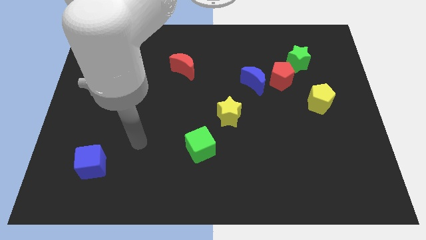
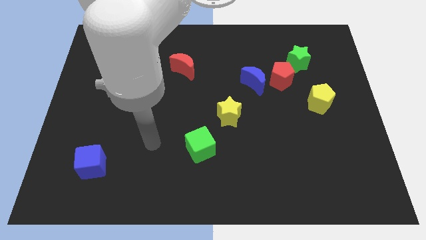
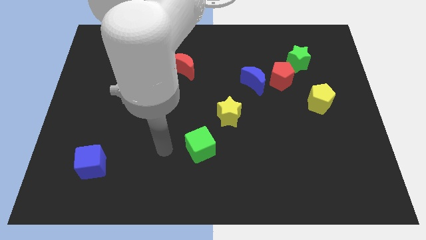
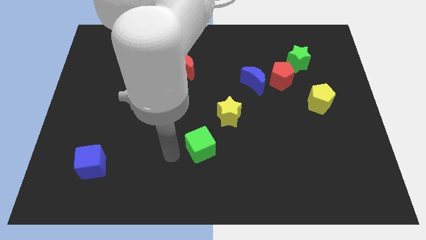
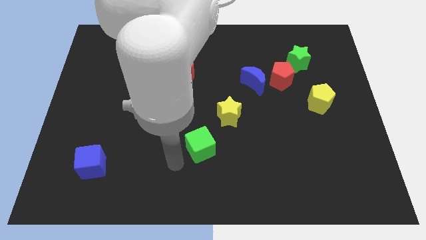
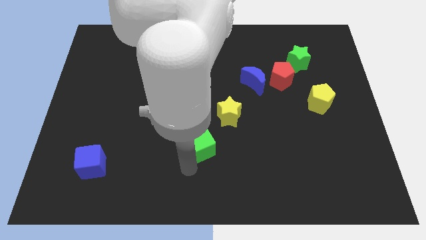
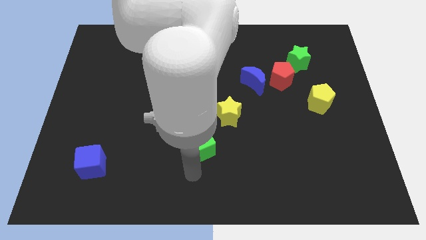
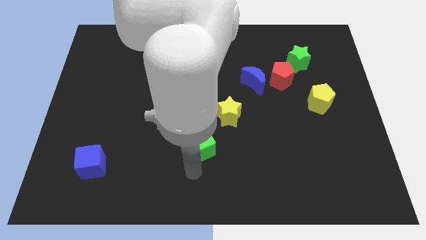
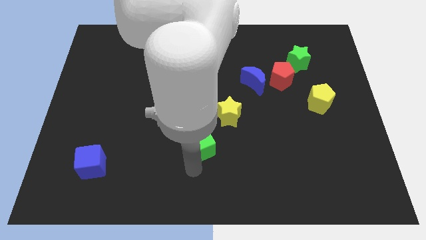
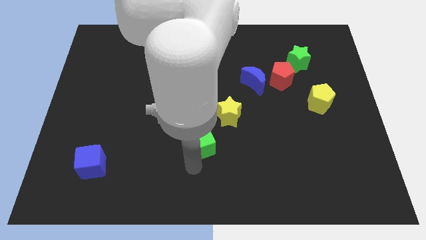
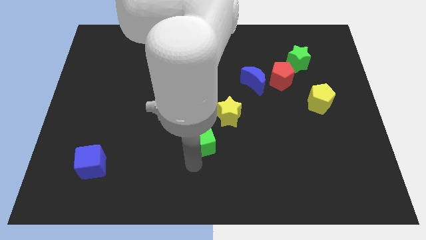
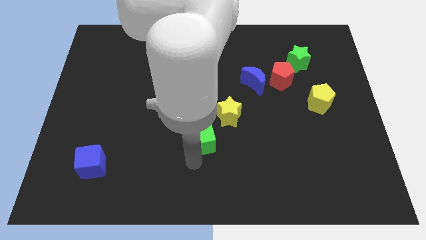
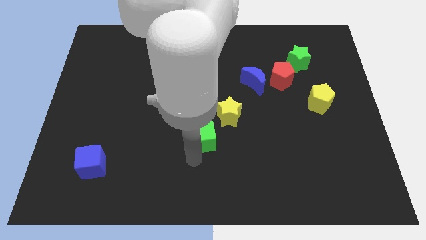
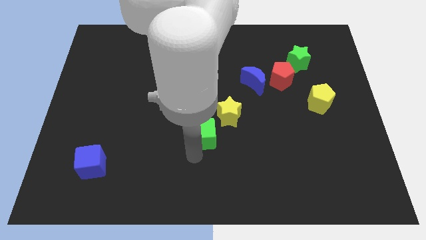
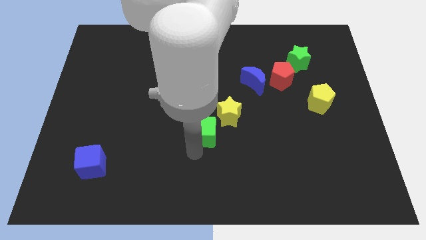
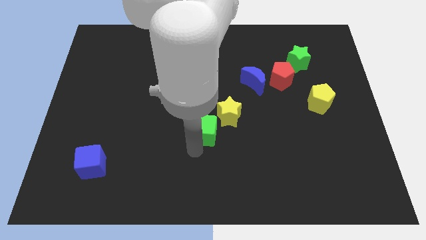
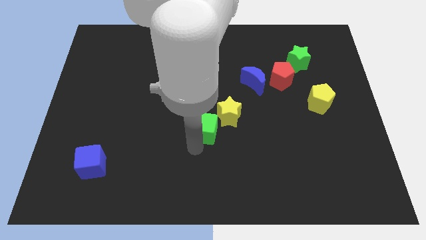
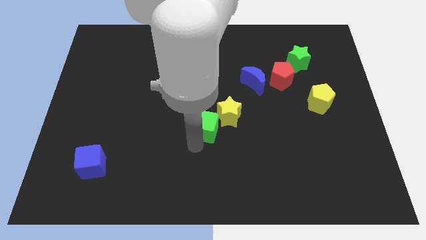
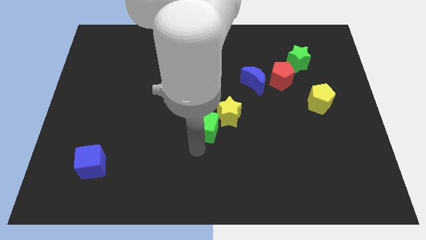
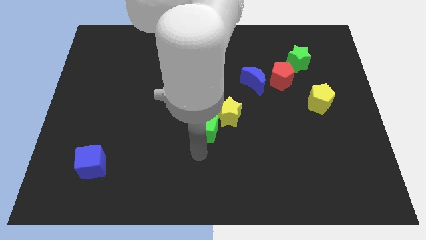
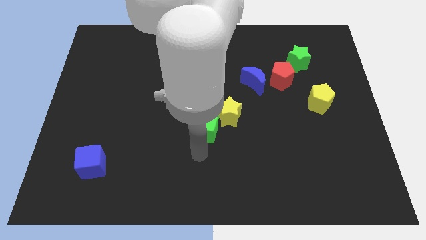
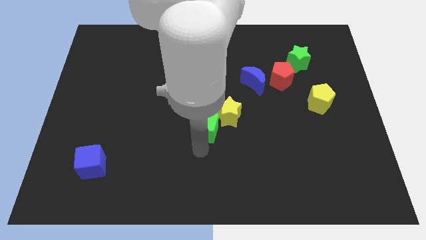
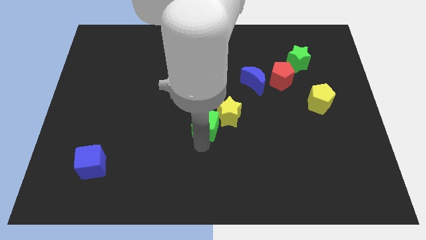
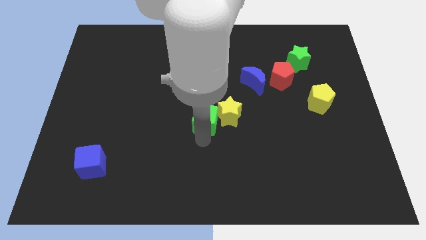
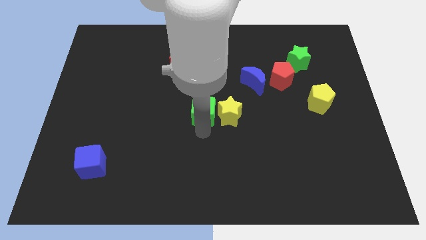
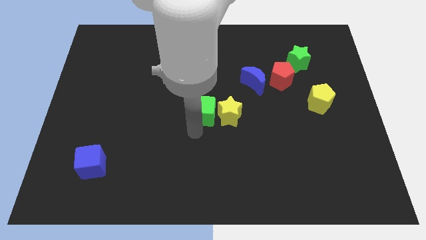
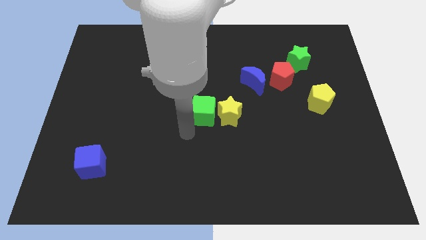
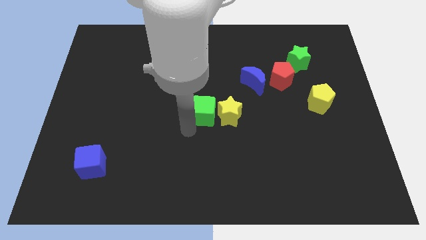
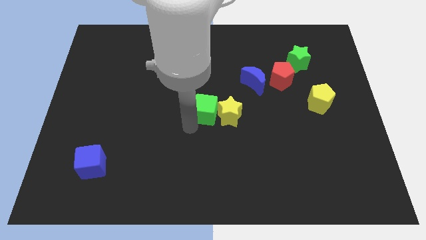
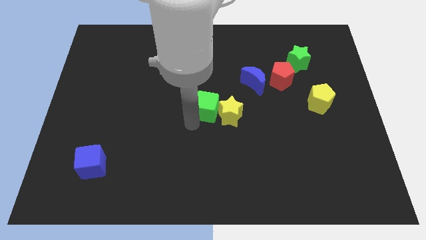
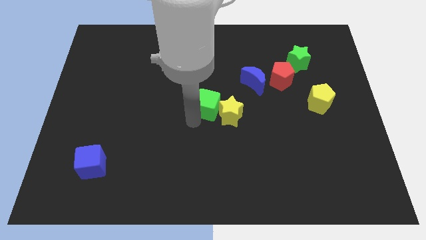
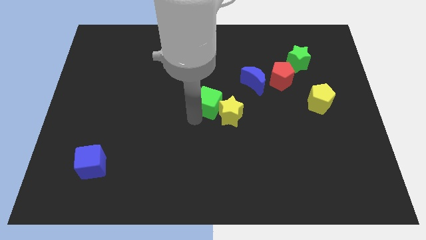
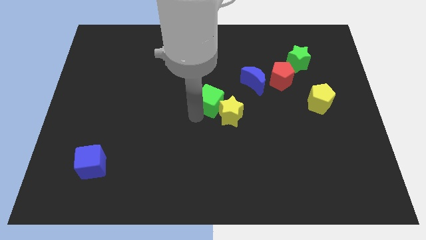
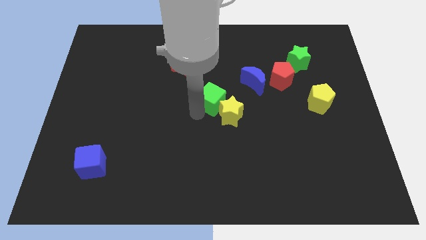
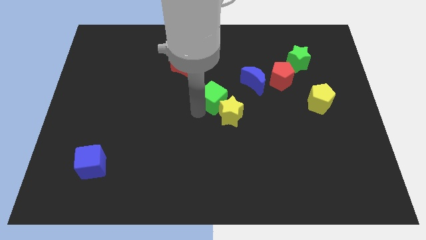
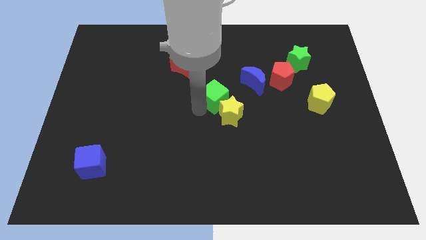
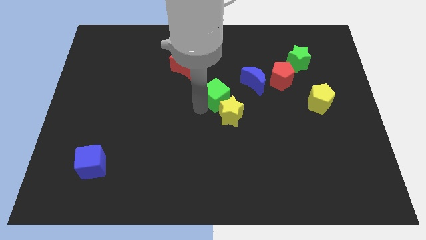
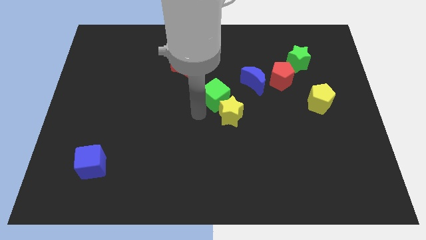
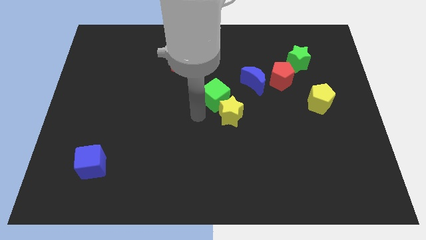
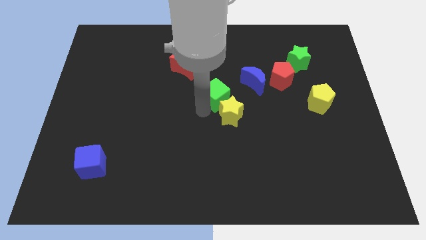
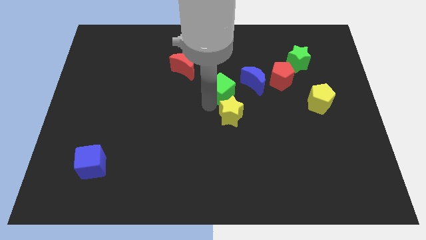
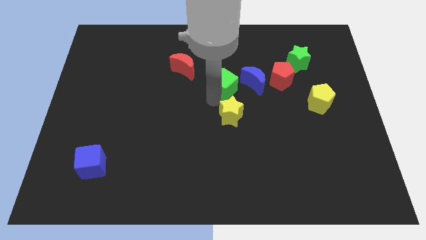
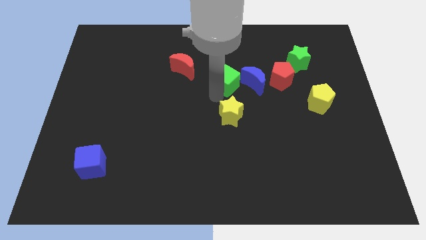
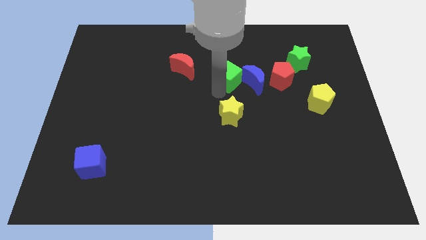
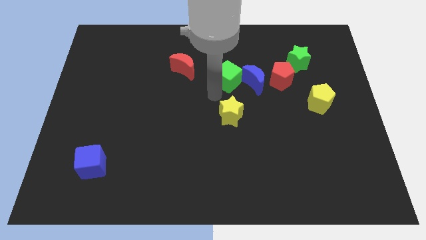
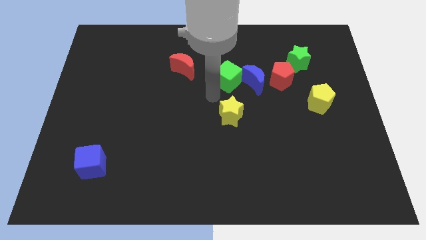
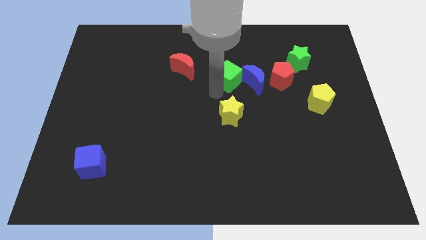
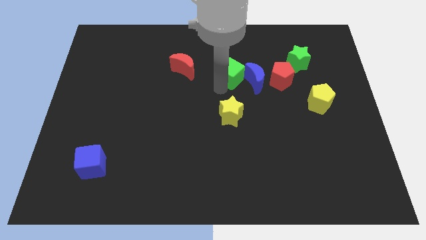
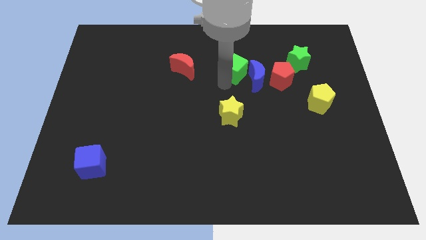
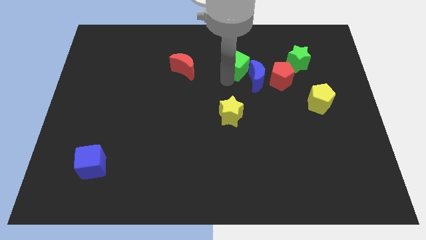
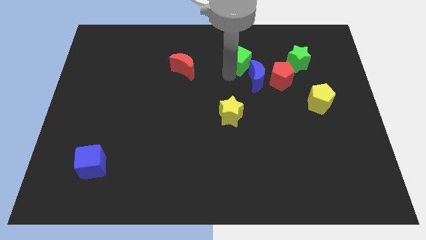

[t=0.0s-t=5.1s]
put the green cube left of the green star

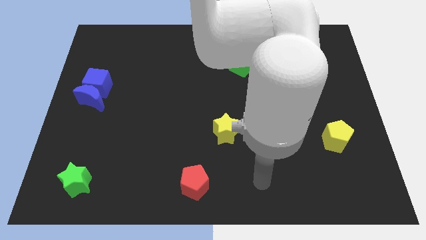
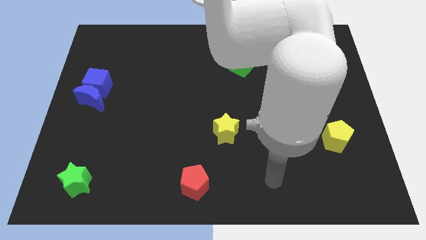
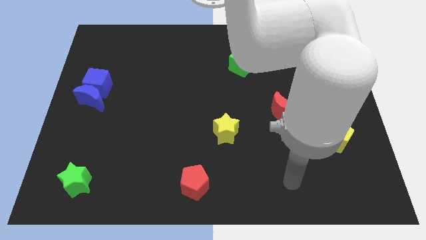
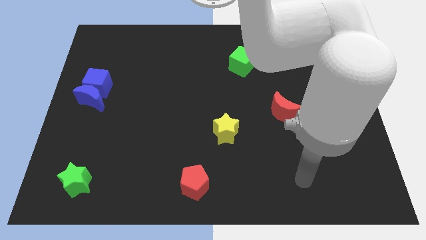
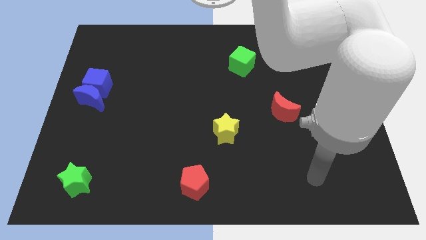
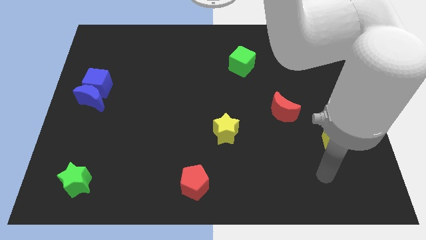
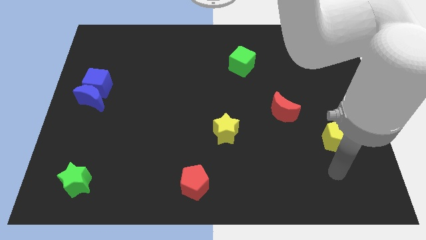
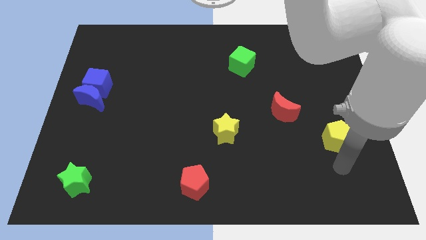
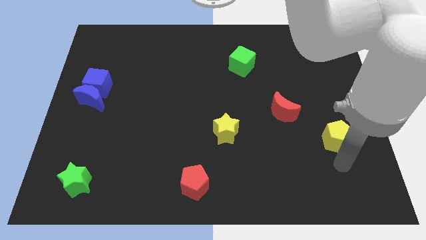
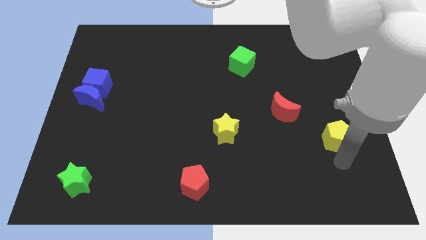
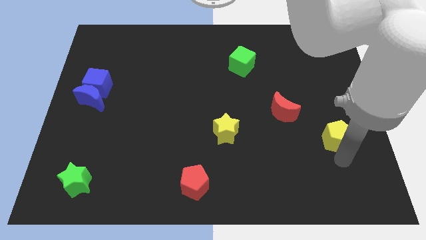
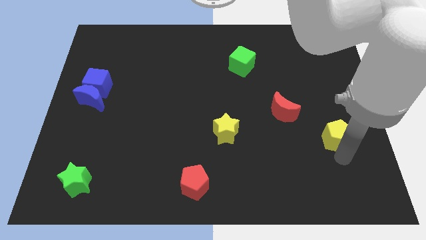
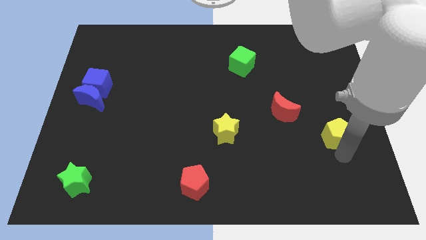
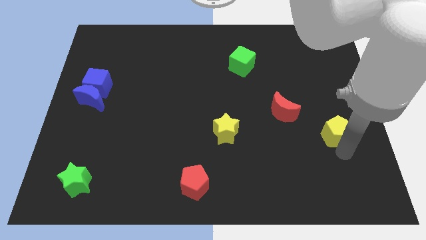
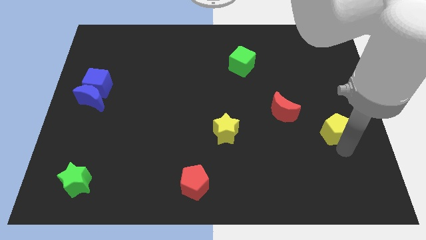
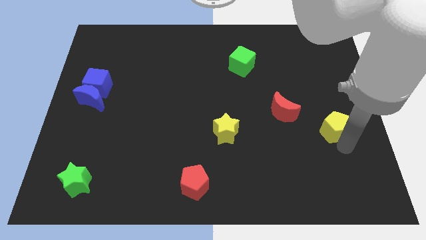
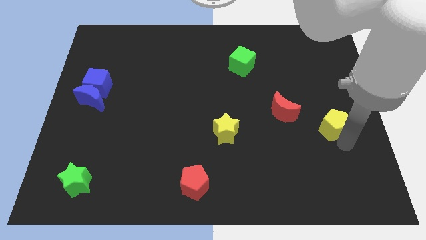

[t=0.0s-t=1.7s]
push the yellow pentagon right of the red moon

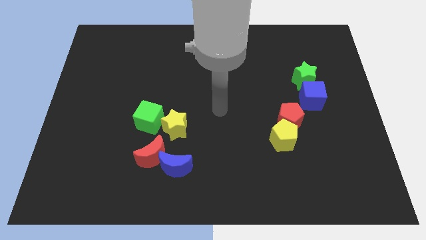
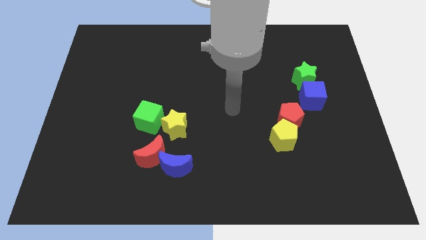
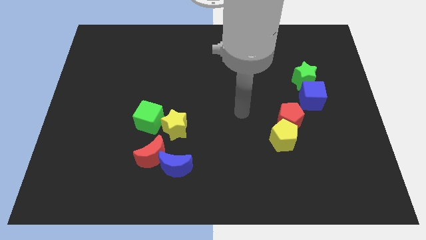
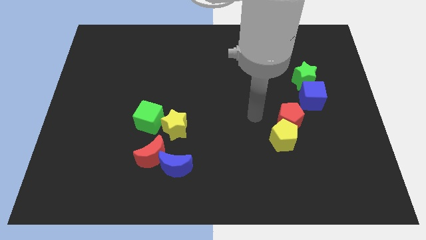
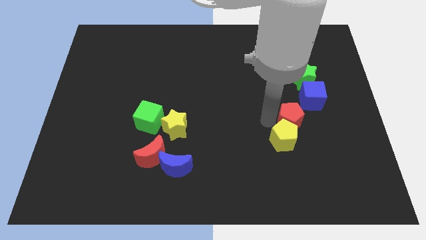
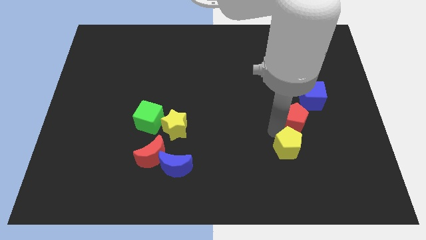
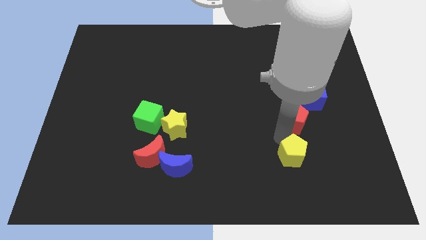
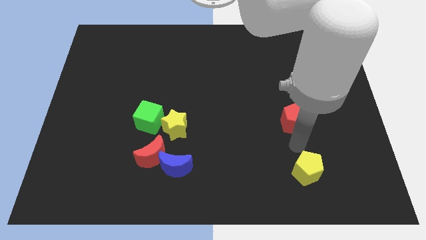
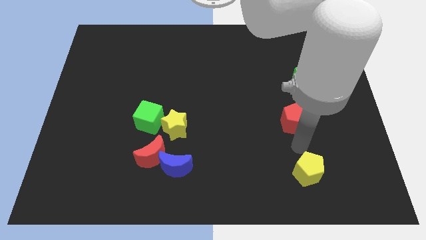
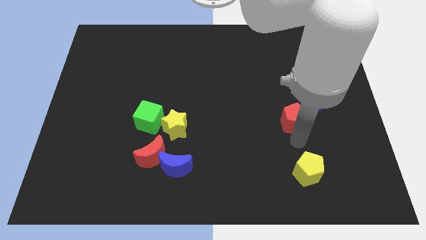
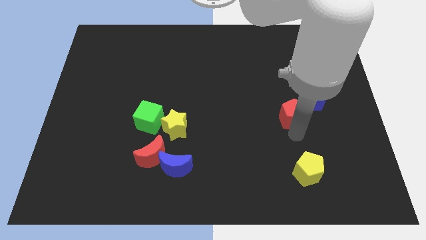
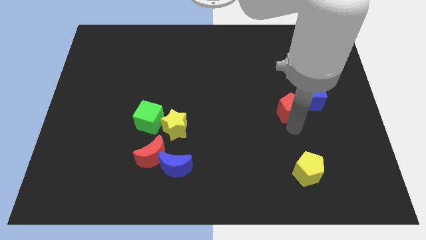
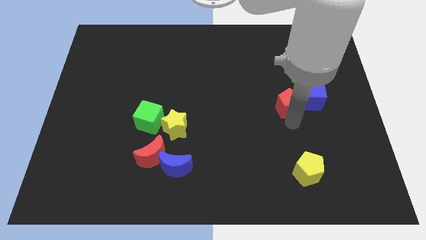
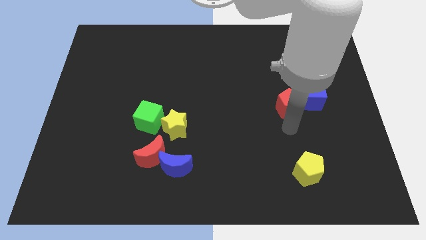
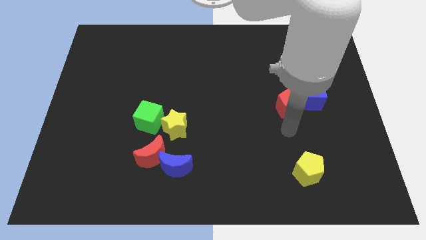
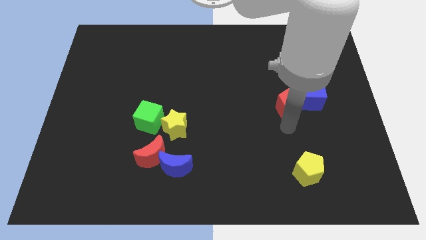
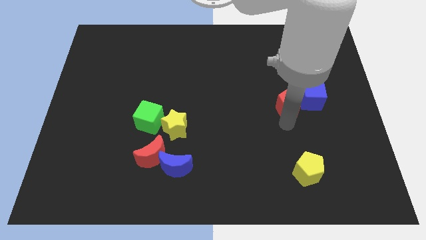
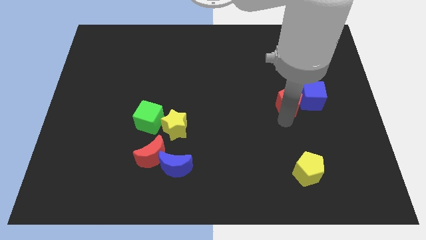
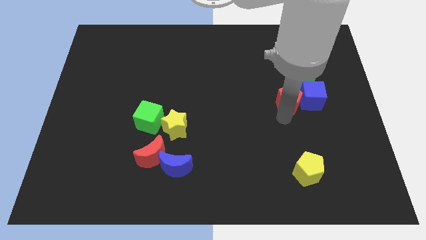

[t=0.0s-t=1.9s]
slide the red pentagon diagonally up and to the left of the blue cube
